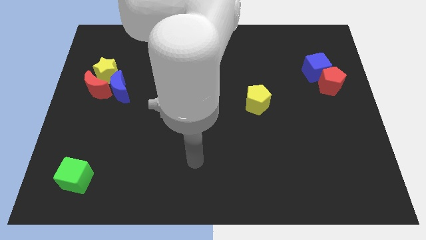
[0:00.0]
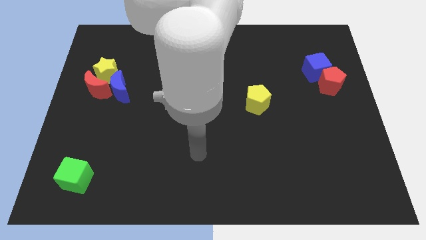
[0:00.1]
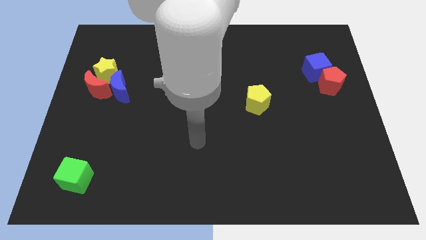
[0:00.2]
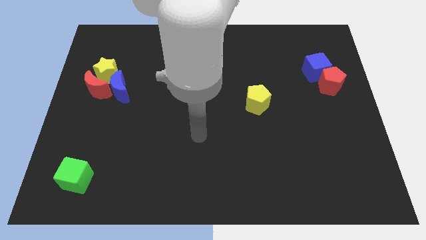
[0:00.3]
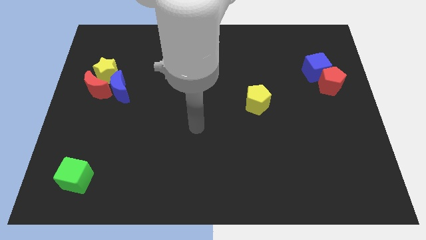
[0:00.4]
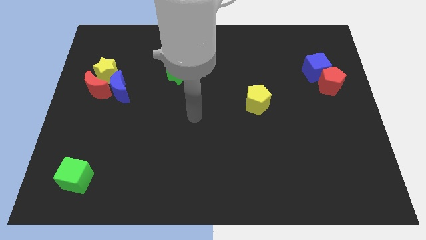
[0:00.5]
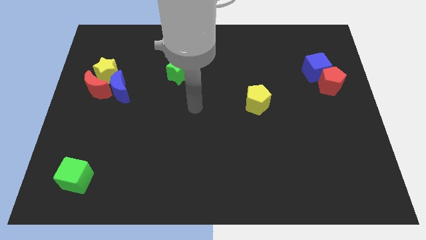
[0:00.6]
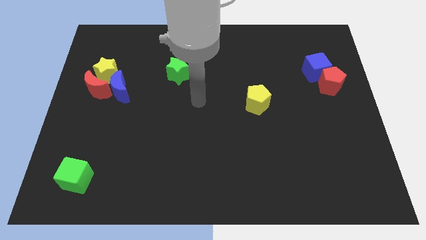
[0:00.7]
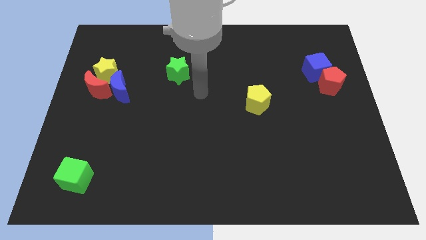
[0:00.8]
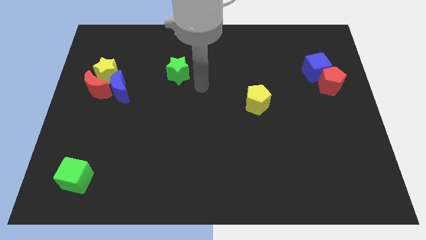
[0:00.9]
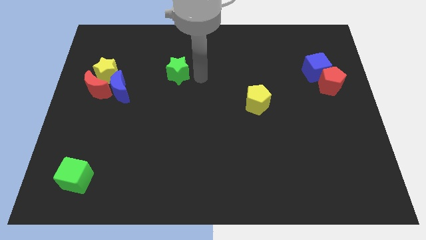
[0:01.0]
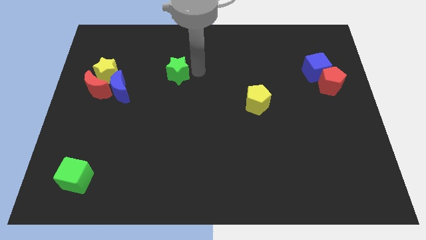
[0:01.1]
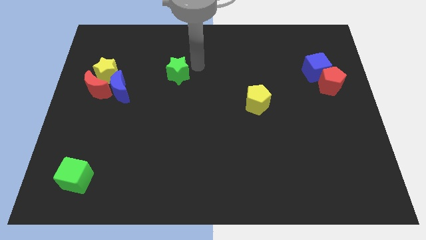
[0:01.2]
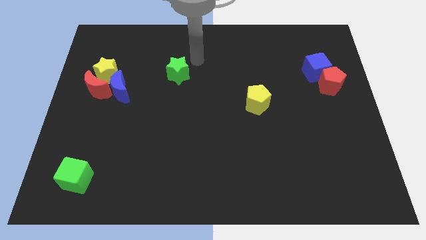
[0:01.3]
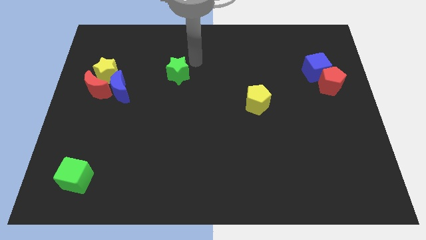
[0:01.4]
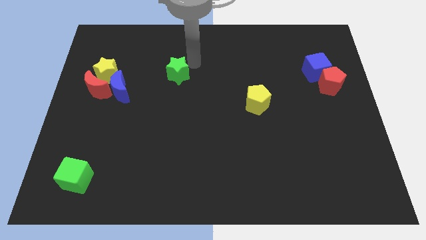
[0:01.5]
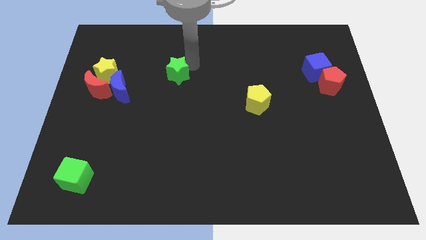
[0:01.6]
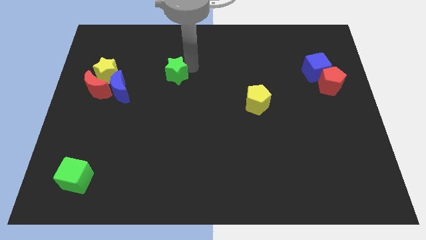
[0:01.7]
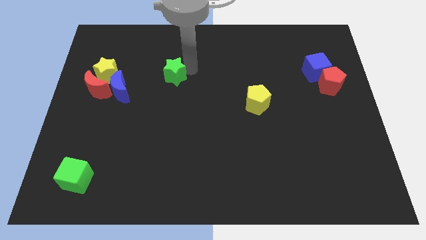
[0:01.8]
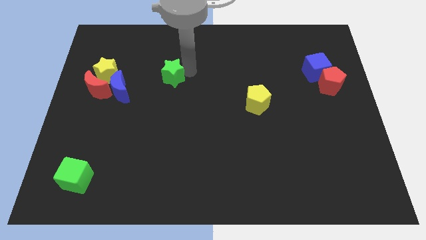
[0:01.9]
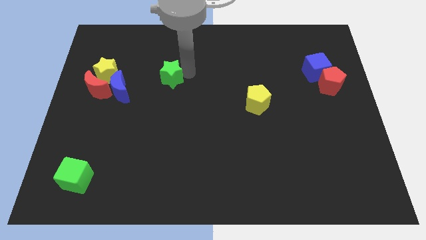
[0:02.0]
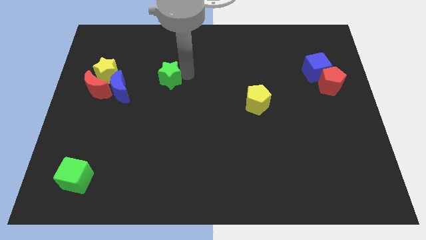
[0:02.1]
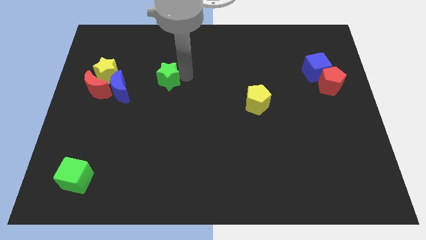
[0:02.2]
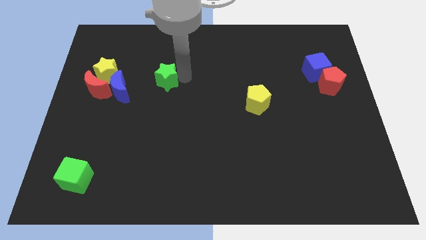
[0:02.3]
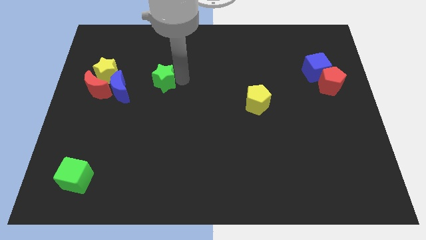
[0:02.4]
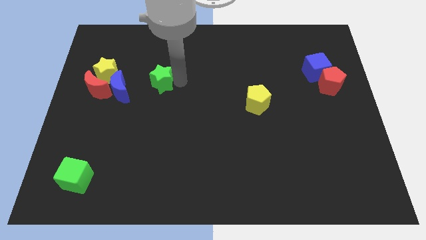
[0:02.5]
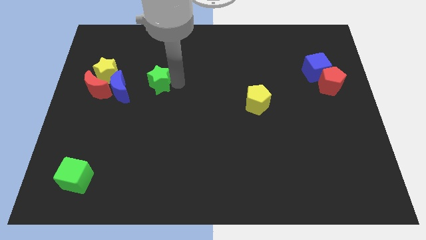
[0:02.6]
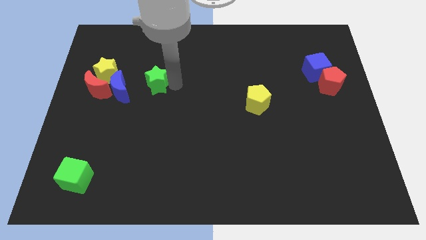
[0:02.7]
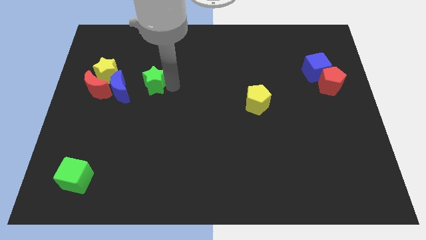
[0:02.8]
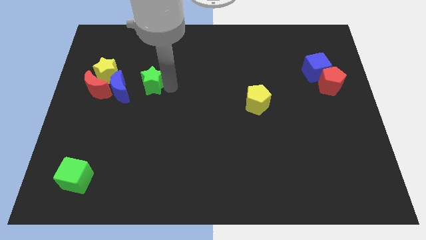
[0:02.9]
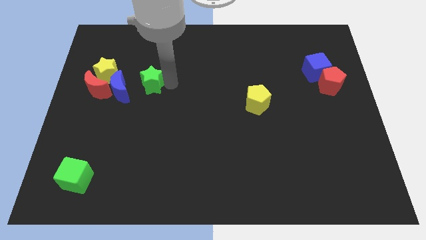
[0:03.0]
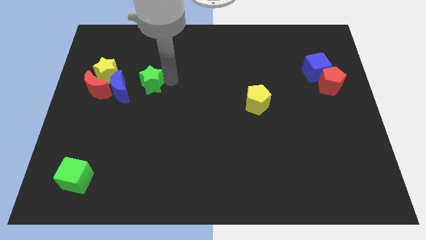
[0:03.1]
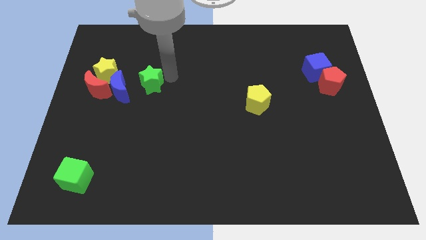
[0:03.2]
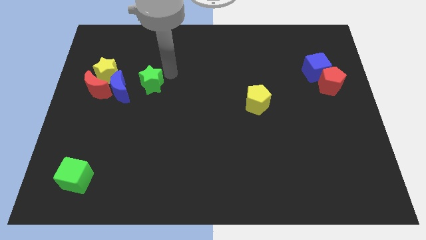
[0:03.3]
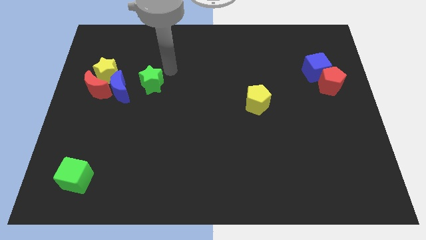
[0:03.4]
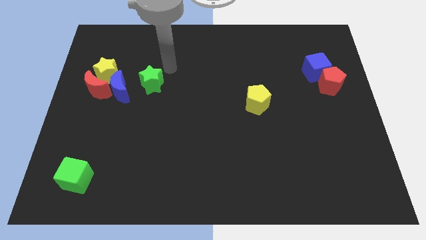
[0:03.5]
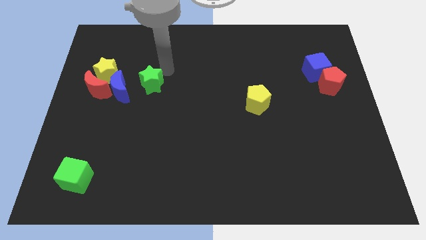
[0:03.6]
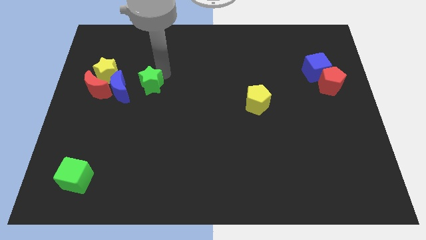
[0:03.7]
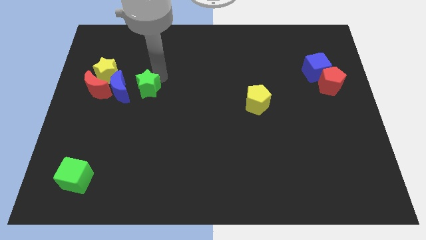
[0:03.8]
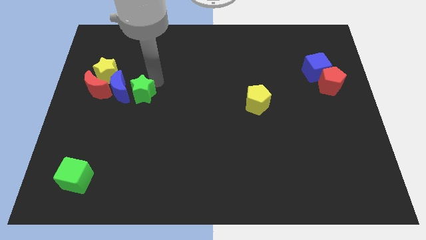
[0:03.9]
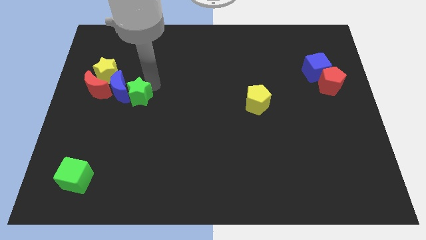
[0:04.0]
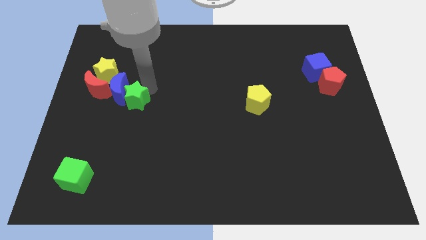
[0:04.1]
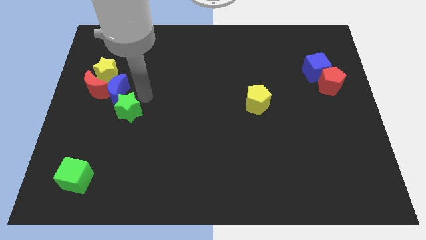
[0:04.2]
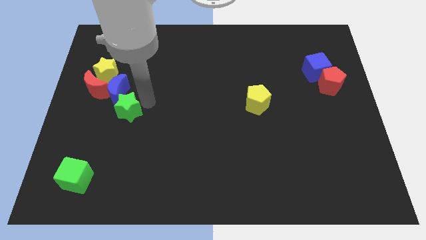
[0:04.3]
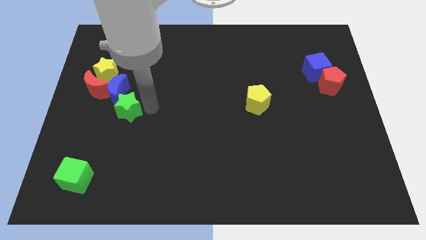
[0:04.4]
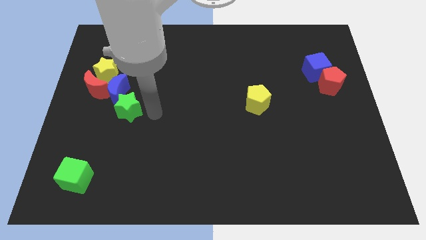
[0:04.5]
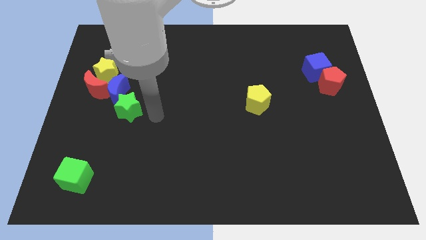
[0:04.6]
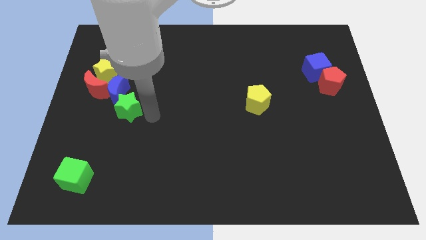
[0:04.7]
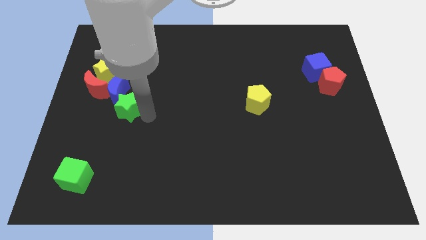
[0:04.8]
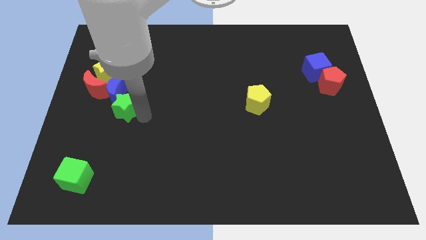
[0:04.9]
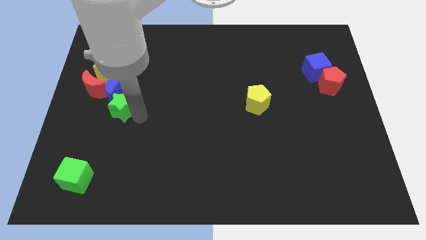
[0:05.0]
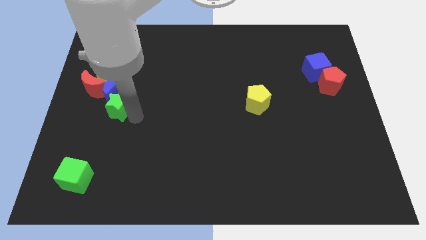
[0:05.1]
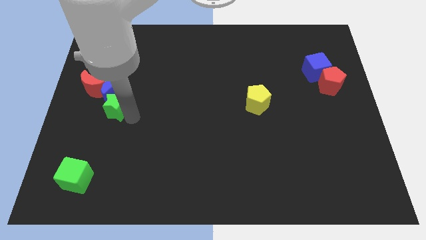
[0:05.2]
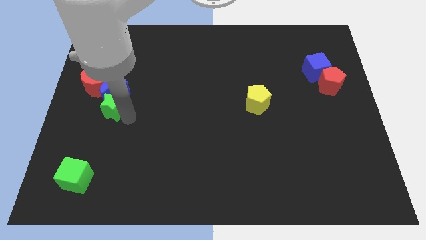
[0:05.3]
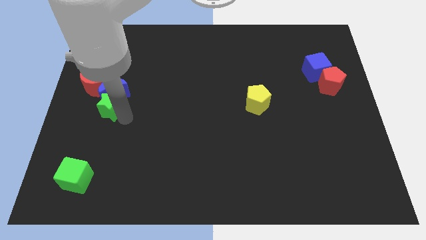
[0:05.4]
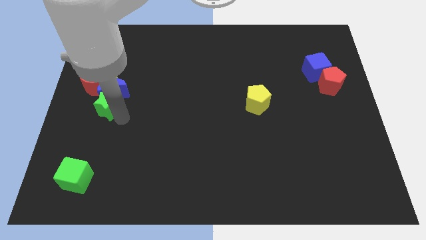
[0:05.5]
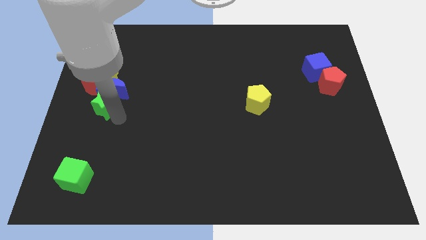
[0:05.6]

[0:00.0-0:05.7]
slide the green star to the center left
